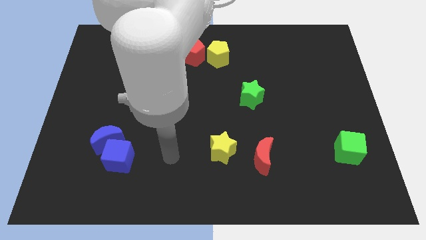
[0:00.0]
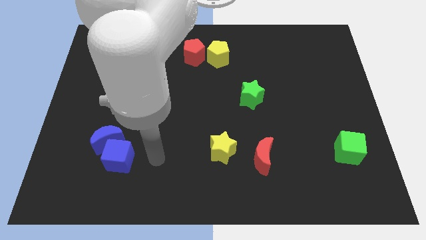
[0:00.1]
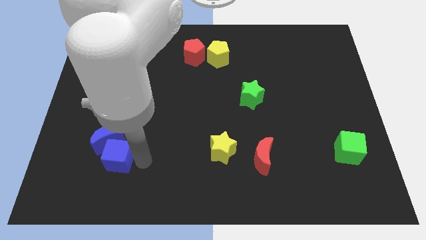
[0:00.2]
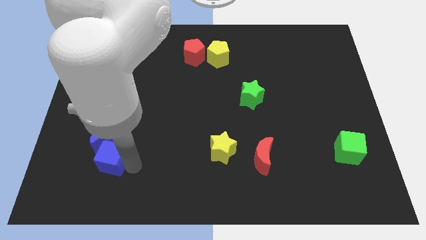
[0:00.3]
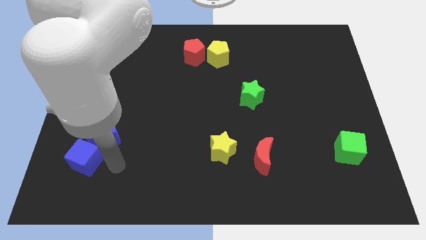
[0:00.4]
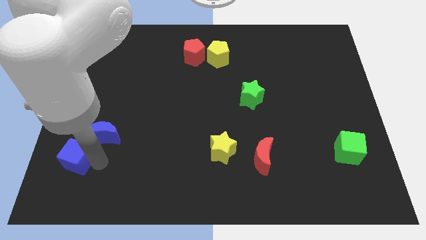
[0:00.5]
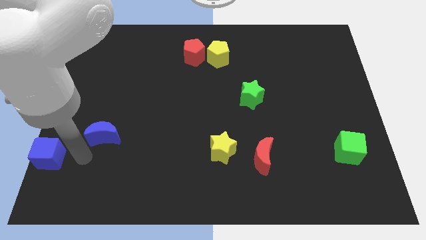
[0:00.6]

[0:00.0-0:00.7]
move the blue moon away from the blue cube

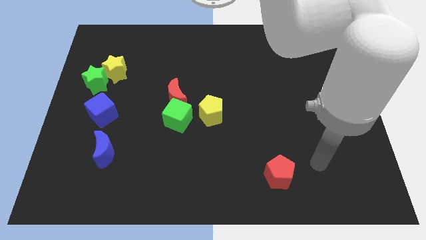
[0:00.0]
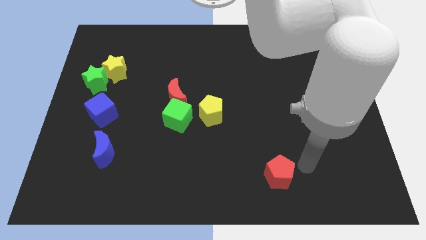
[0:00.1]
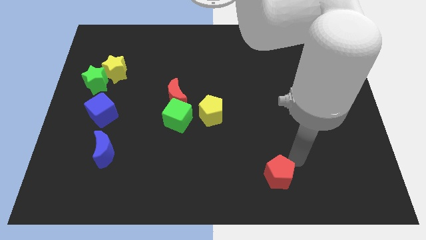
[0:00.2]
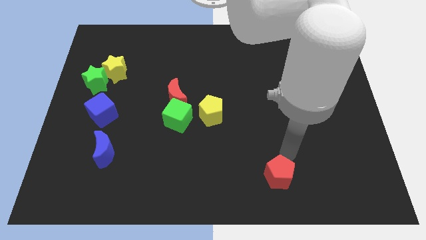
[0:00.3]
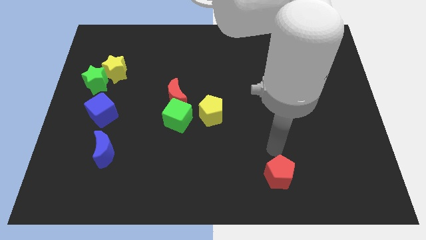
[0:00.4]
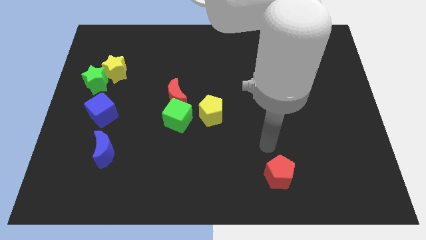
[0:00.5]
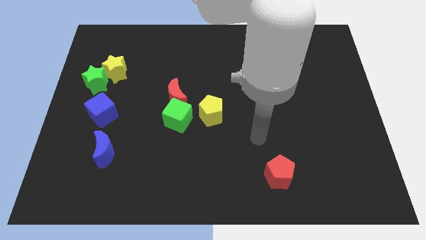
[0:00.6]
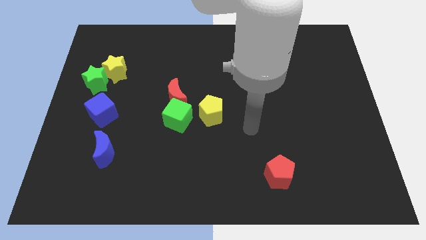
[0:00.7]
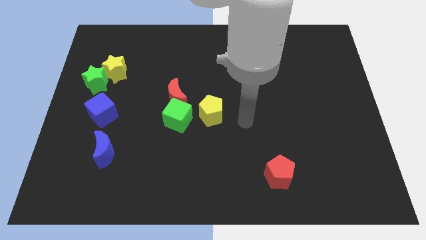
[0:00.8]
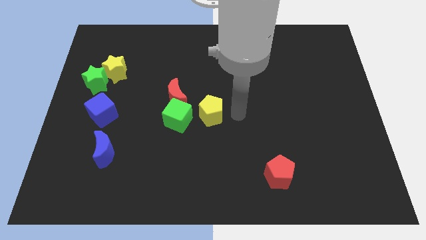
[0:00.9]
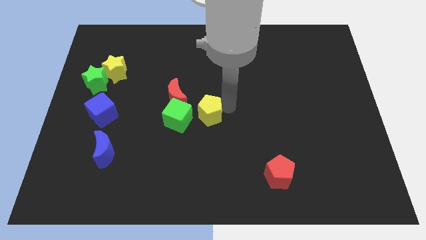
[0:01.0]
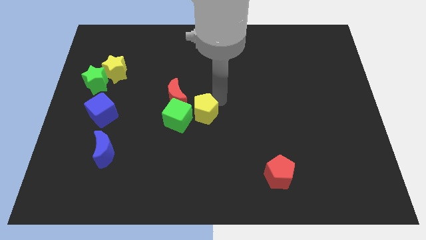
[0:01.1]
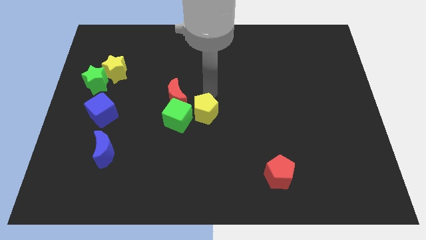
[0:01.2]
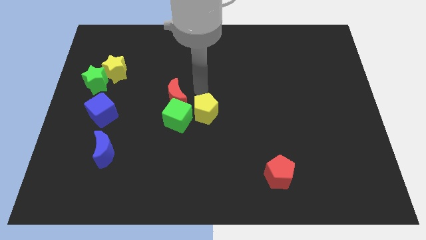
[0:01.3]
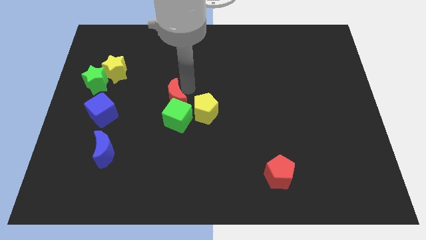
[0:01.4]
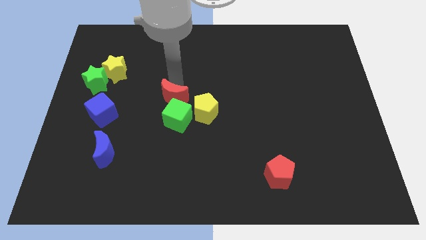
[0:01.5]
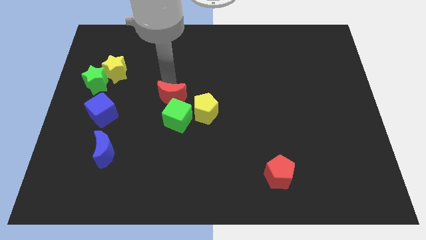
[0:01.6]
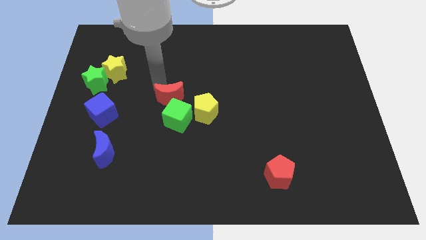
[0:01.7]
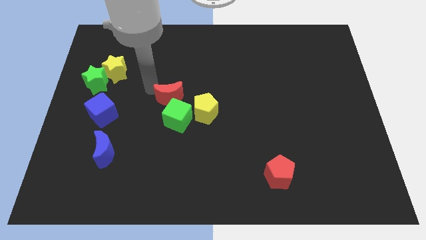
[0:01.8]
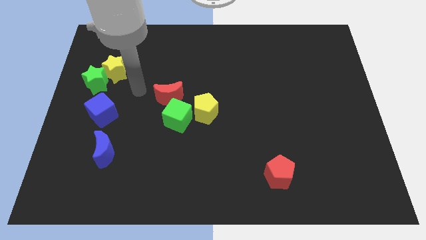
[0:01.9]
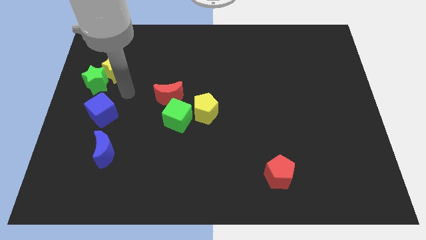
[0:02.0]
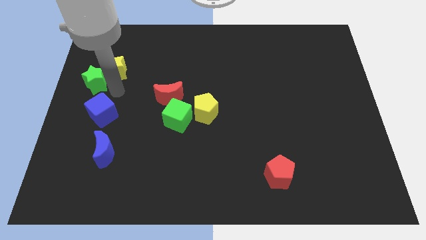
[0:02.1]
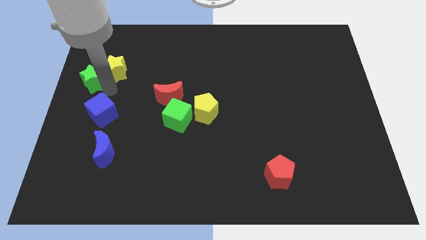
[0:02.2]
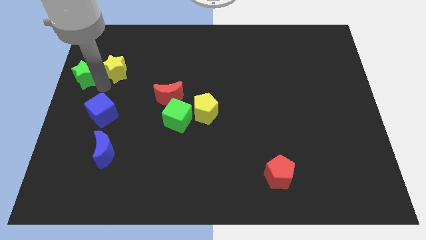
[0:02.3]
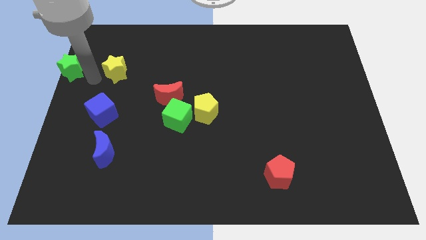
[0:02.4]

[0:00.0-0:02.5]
pull the yellow star apart from the green star

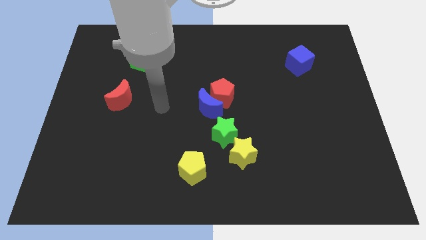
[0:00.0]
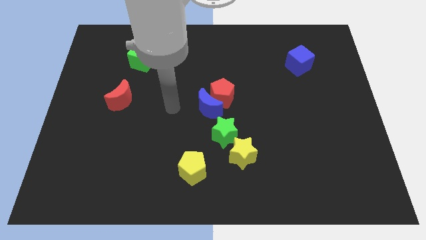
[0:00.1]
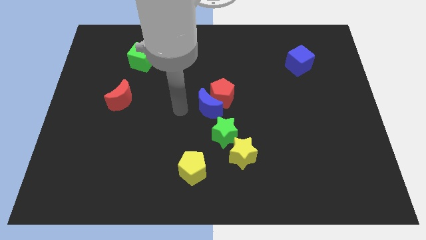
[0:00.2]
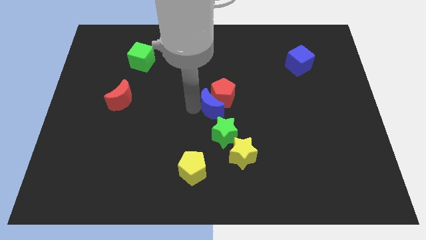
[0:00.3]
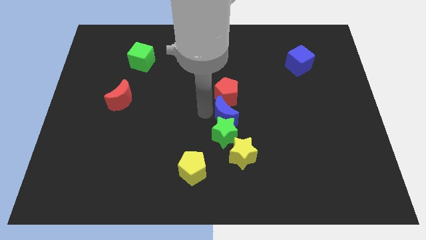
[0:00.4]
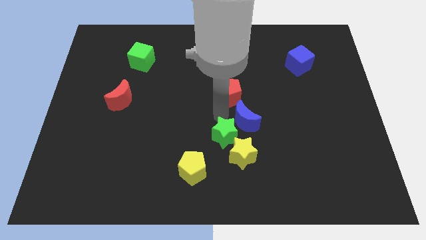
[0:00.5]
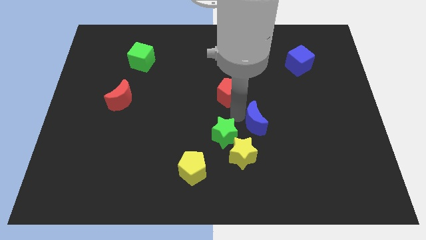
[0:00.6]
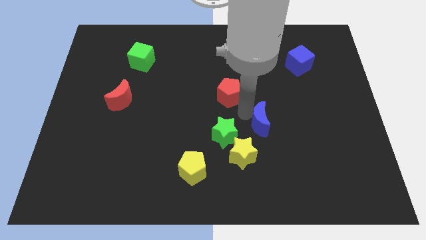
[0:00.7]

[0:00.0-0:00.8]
pull the red pentagon apart from the blue moon

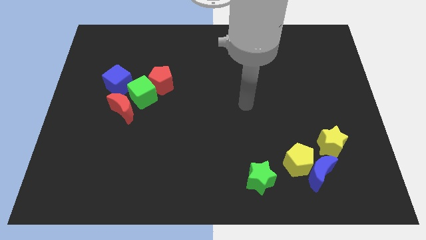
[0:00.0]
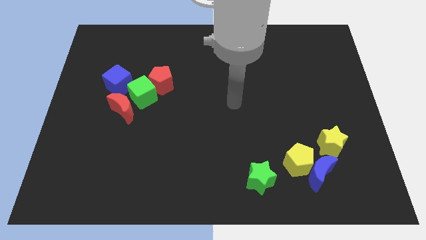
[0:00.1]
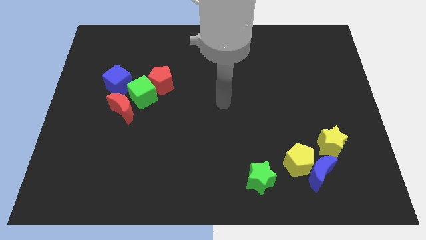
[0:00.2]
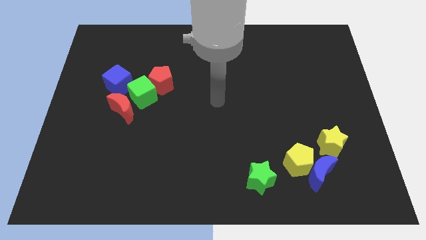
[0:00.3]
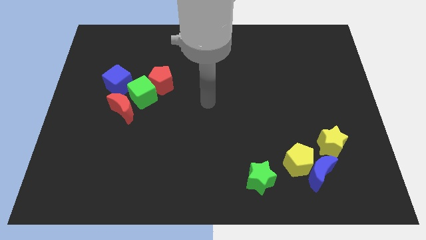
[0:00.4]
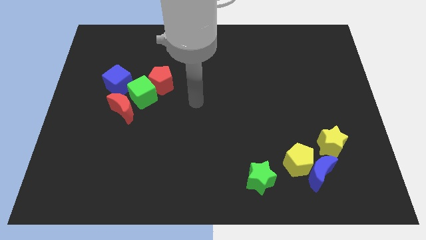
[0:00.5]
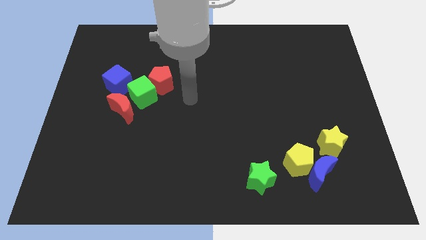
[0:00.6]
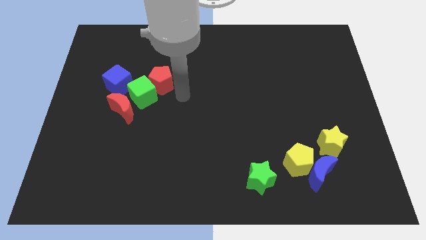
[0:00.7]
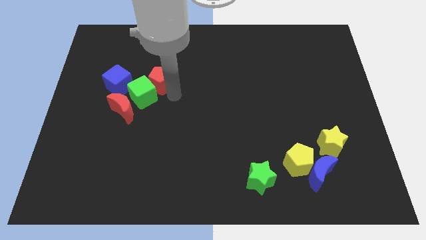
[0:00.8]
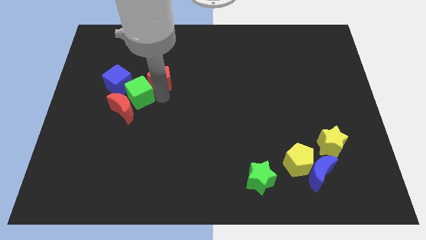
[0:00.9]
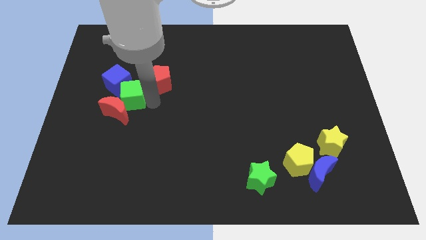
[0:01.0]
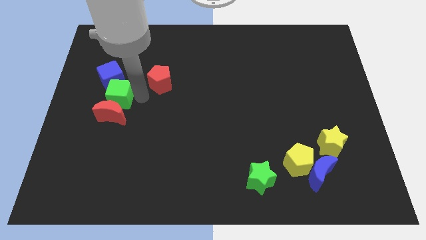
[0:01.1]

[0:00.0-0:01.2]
pull the red pentagon apart from the green cube

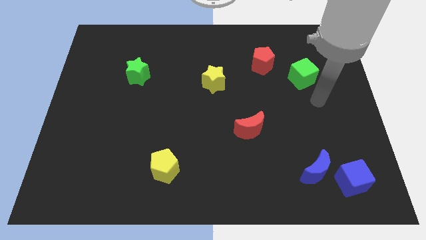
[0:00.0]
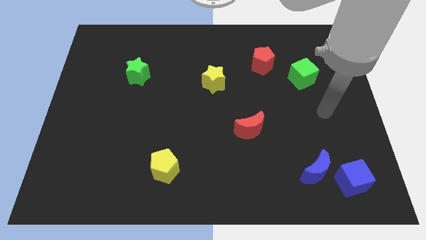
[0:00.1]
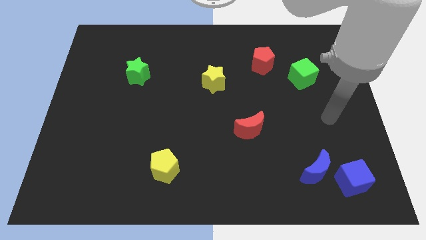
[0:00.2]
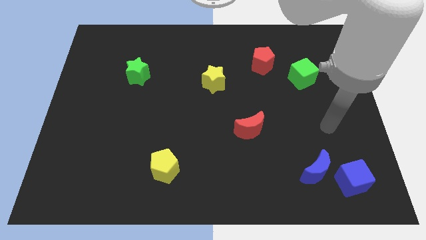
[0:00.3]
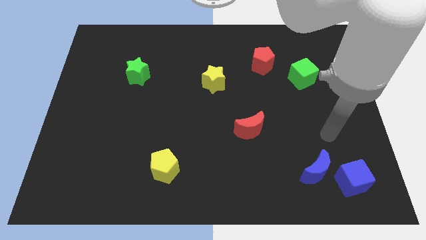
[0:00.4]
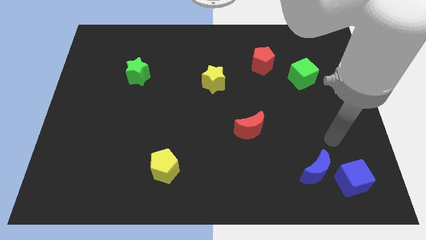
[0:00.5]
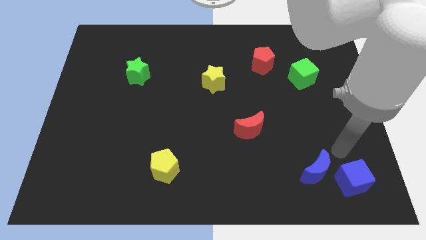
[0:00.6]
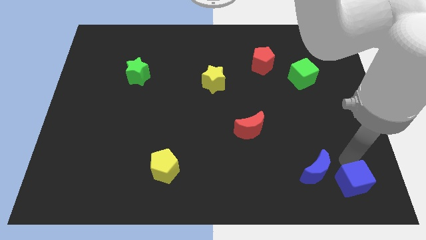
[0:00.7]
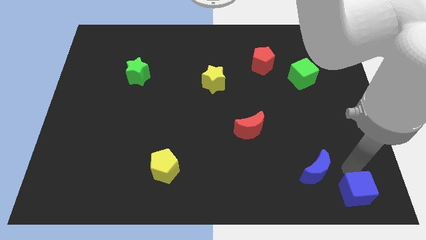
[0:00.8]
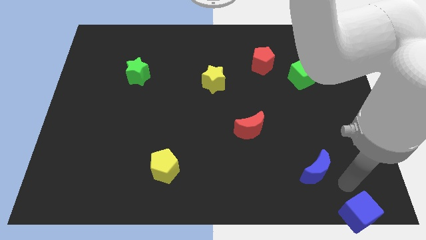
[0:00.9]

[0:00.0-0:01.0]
pull the blue moon apart from the blue cube

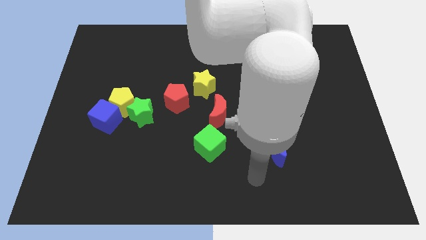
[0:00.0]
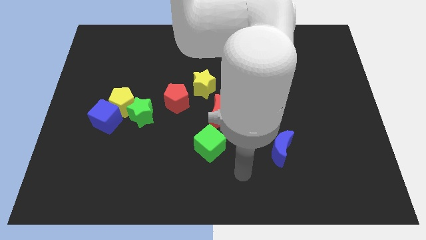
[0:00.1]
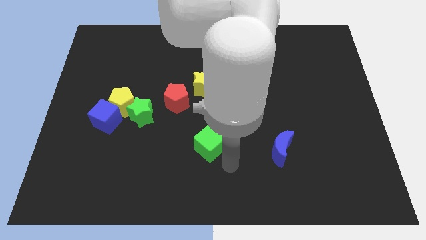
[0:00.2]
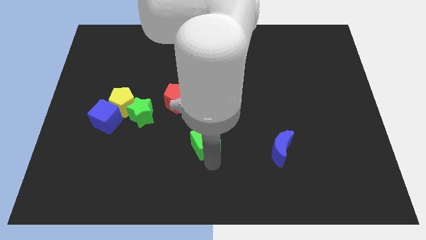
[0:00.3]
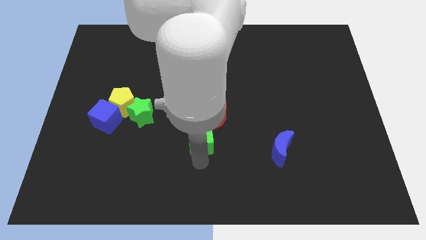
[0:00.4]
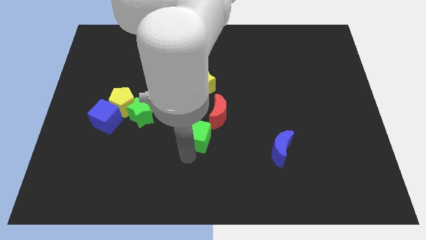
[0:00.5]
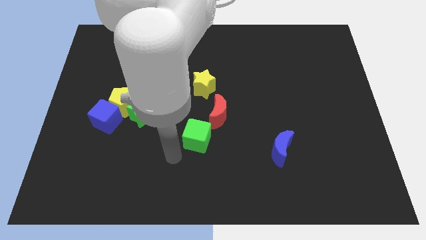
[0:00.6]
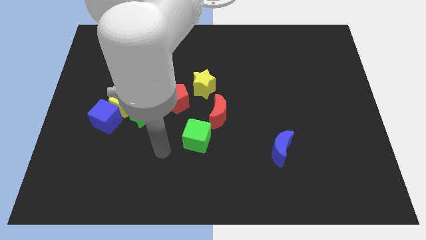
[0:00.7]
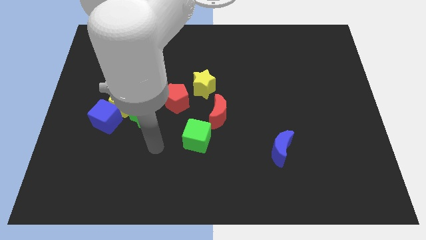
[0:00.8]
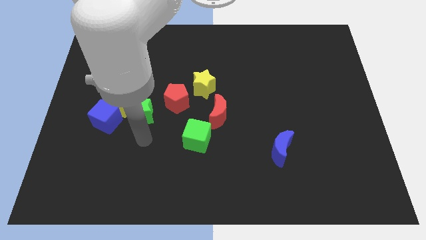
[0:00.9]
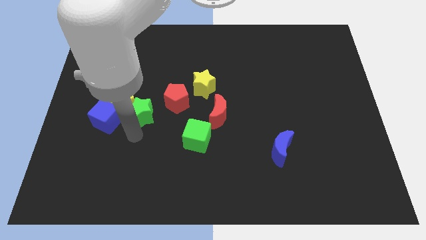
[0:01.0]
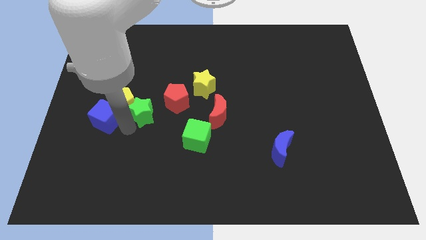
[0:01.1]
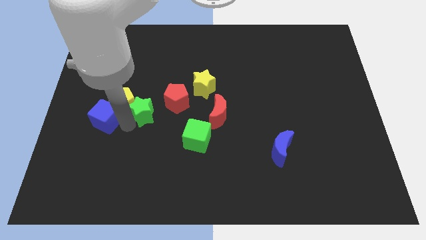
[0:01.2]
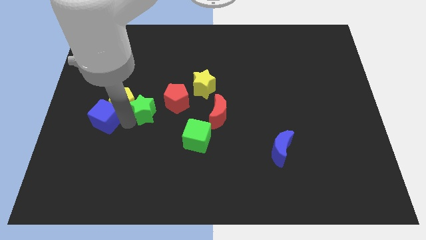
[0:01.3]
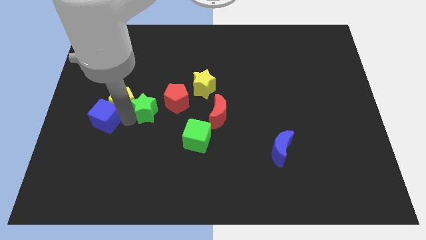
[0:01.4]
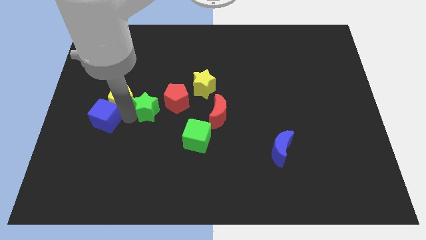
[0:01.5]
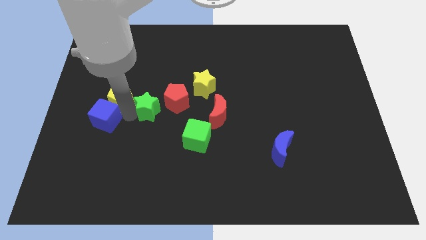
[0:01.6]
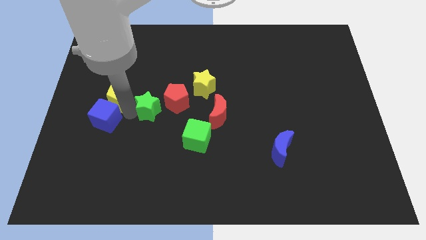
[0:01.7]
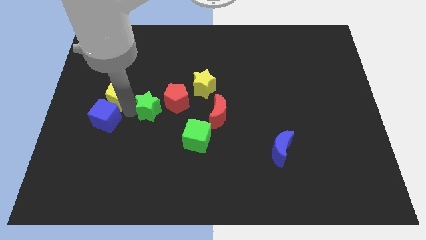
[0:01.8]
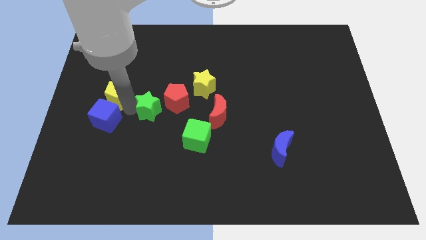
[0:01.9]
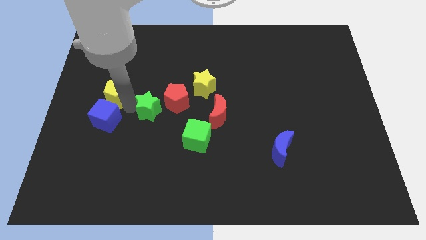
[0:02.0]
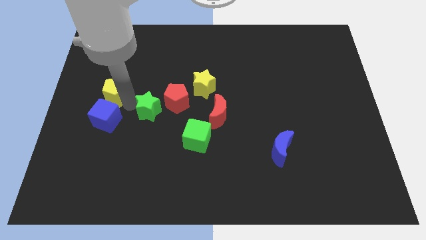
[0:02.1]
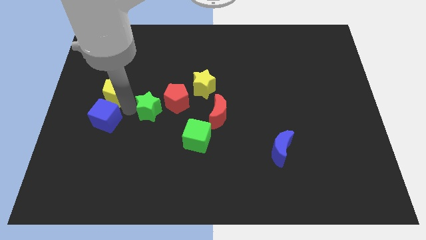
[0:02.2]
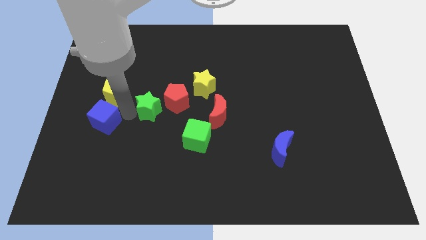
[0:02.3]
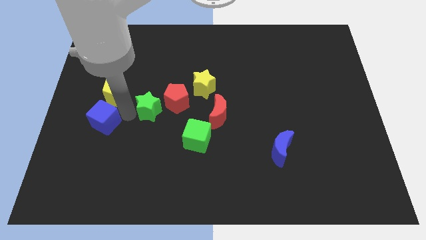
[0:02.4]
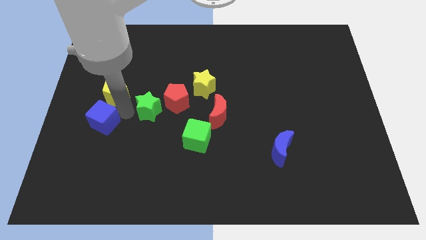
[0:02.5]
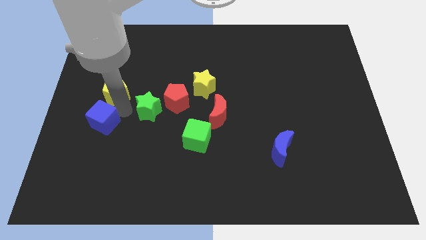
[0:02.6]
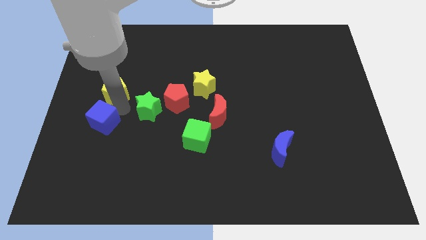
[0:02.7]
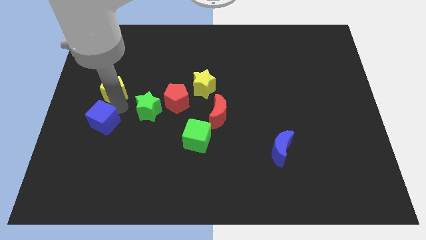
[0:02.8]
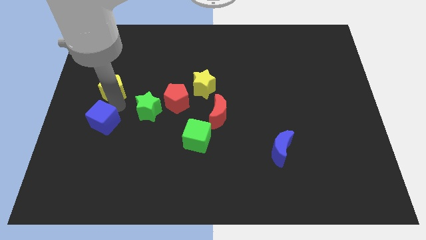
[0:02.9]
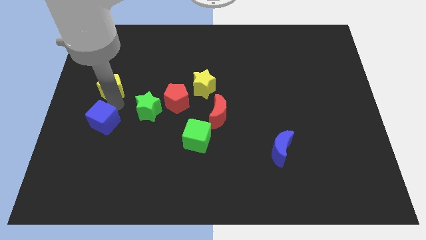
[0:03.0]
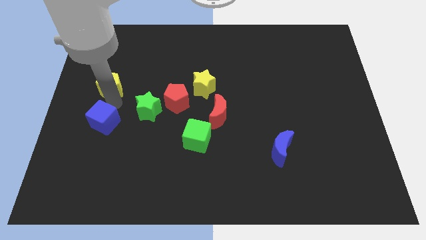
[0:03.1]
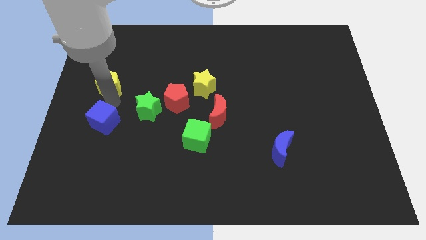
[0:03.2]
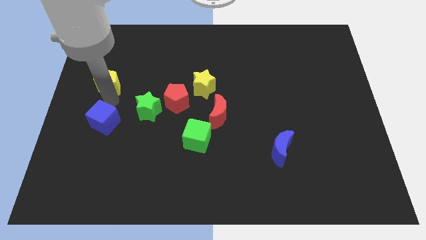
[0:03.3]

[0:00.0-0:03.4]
move the yellow pentagon away from the blue cube and green star
